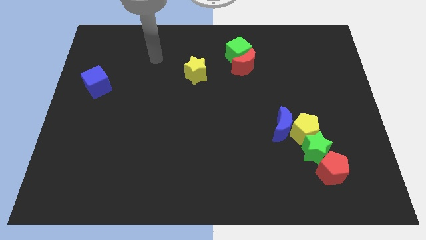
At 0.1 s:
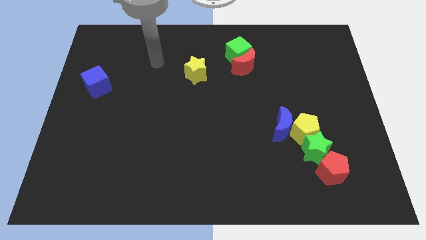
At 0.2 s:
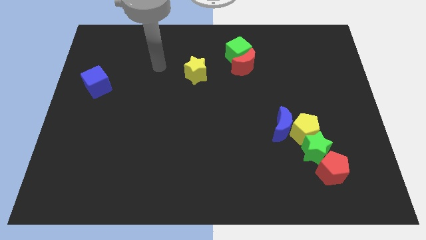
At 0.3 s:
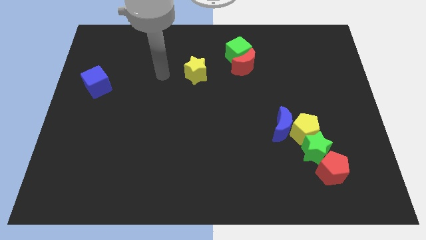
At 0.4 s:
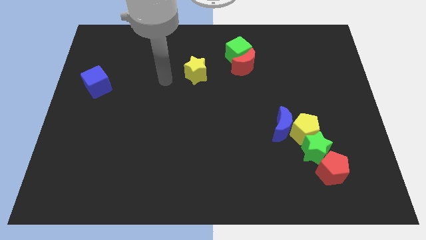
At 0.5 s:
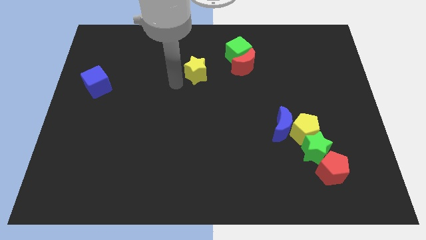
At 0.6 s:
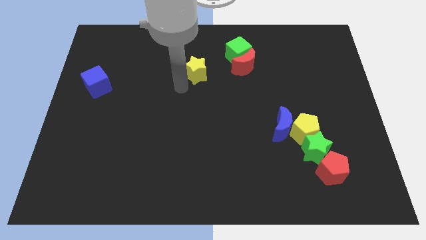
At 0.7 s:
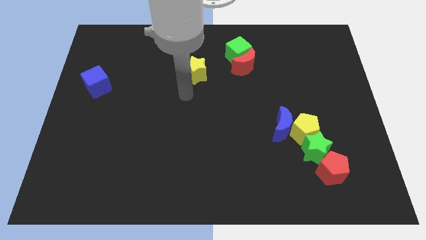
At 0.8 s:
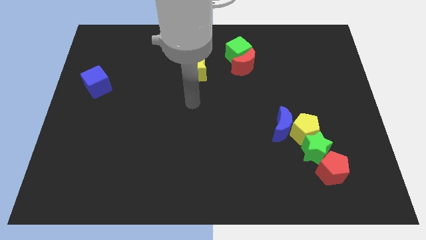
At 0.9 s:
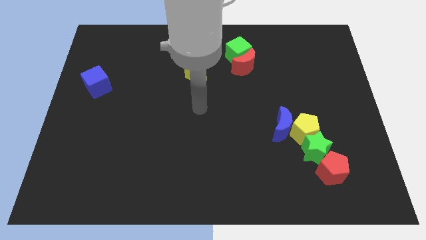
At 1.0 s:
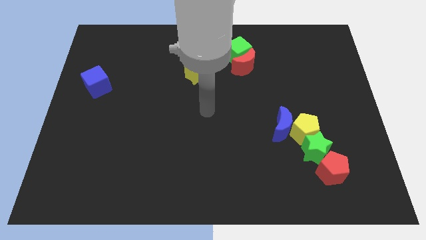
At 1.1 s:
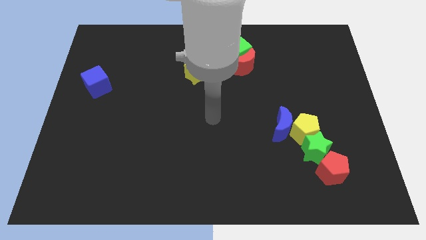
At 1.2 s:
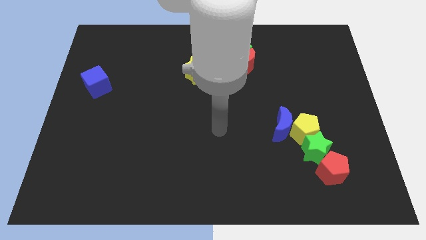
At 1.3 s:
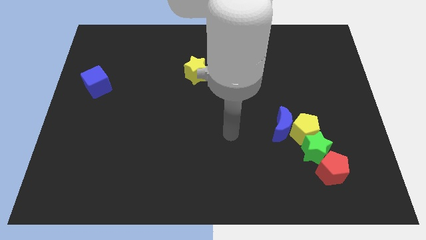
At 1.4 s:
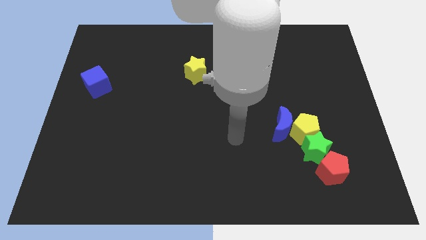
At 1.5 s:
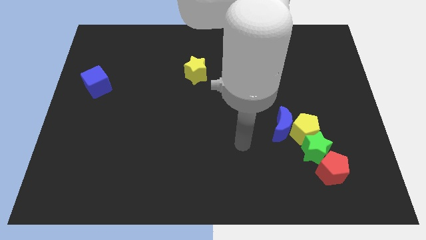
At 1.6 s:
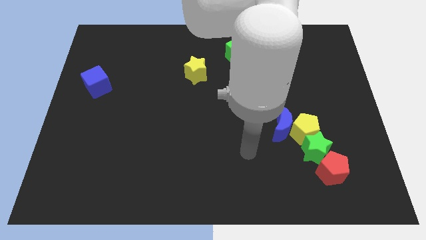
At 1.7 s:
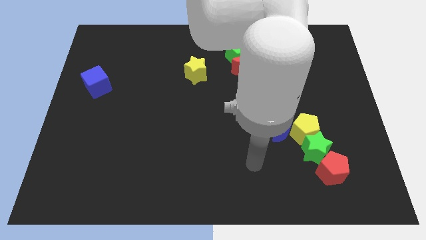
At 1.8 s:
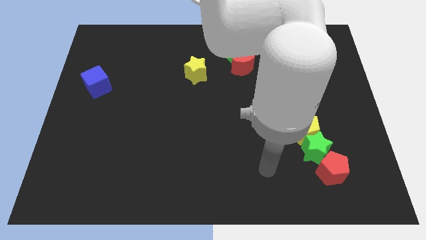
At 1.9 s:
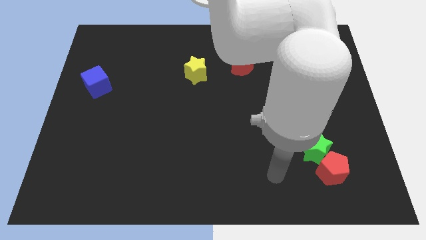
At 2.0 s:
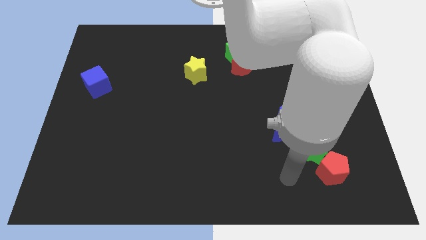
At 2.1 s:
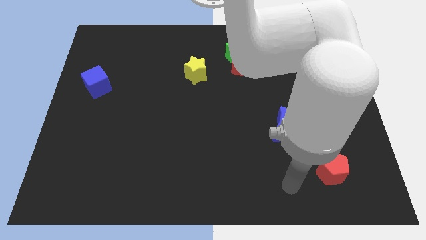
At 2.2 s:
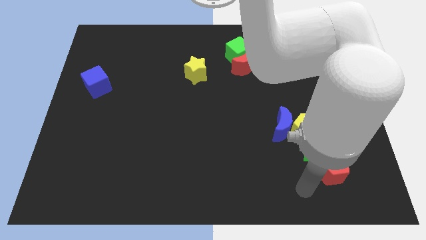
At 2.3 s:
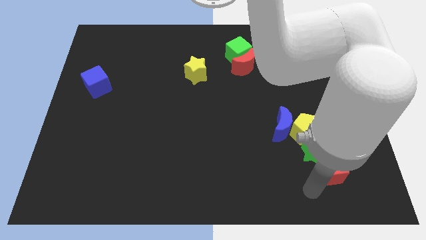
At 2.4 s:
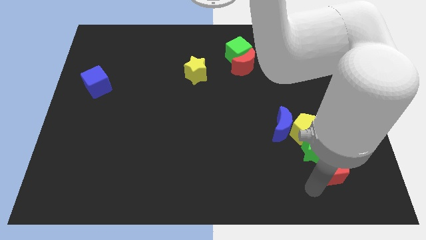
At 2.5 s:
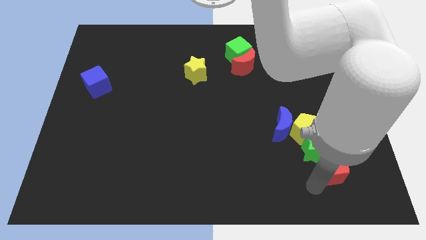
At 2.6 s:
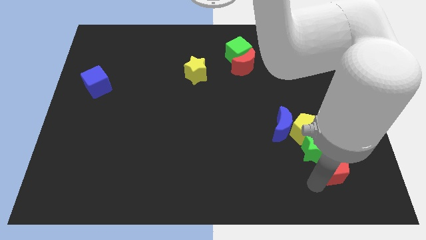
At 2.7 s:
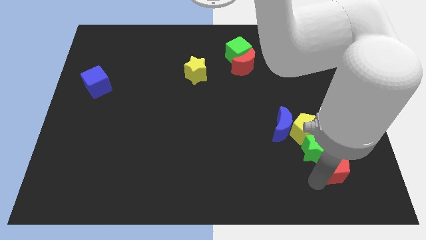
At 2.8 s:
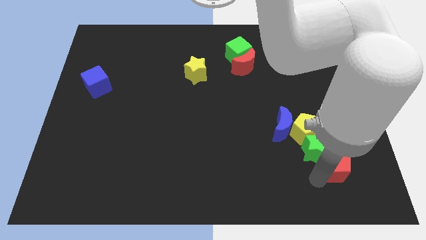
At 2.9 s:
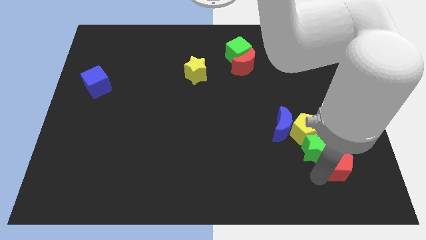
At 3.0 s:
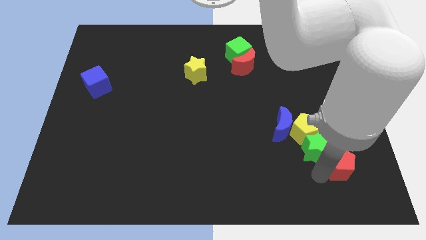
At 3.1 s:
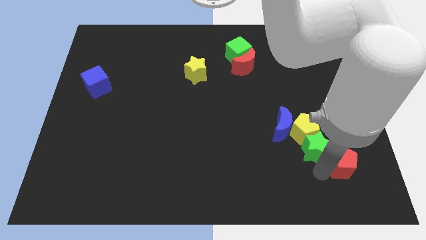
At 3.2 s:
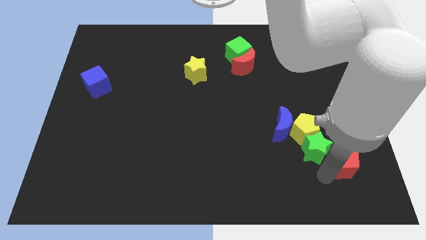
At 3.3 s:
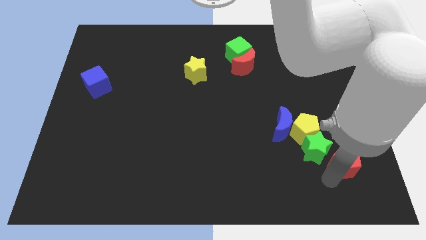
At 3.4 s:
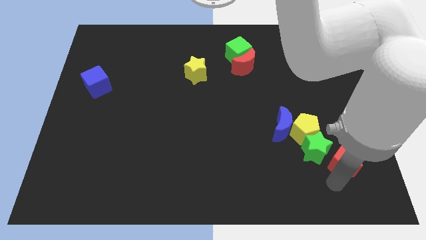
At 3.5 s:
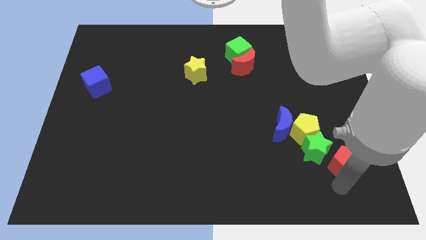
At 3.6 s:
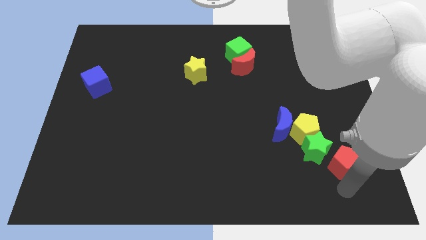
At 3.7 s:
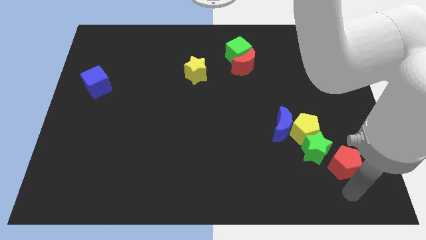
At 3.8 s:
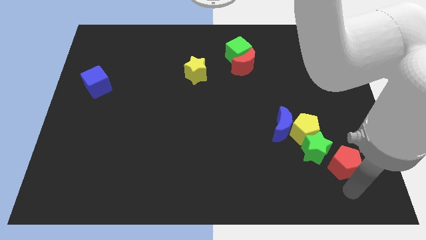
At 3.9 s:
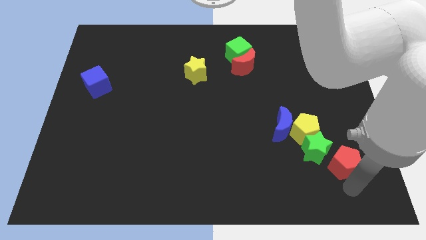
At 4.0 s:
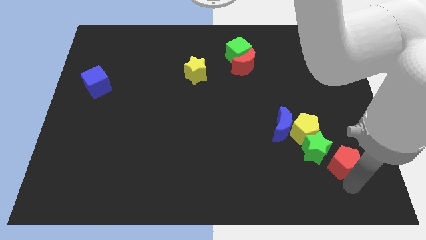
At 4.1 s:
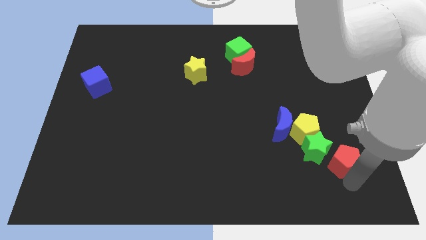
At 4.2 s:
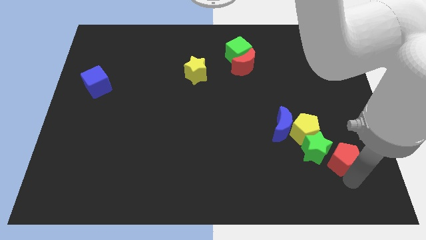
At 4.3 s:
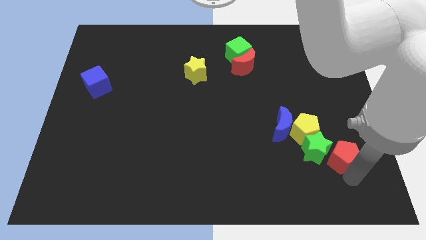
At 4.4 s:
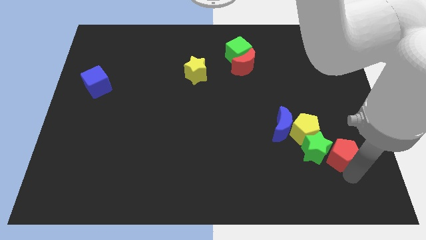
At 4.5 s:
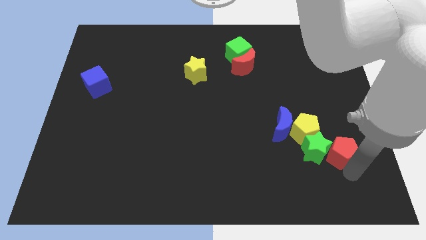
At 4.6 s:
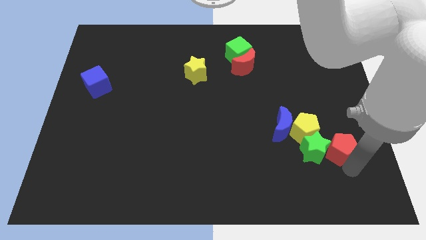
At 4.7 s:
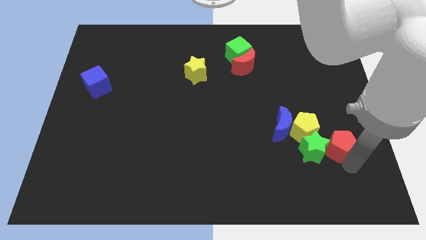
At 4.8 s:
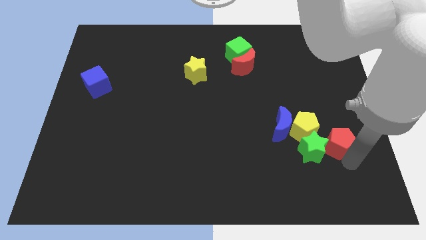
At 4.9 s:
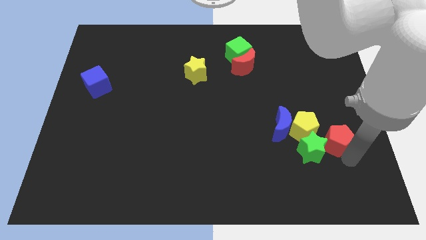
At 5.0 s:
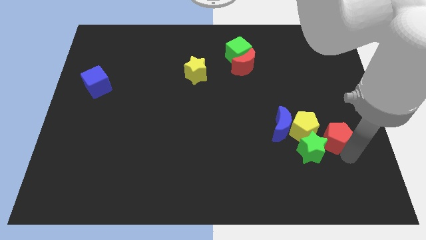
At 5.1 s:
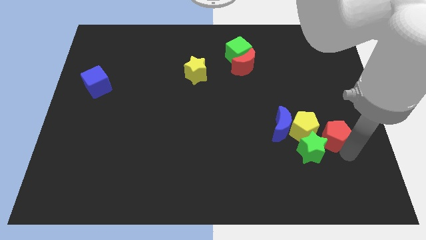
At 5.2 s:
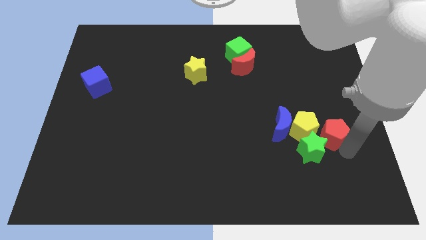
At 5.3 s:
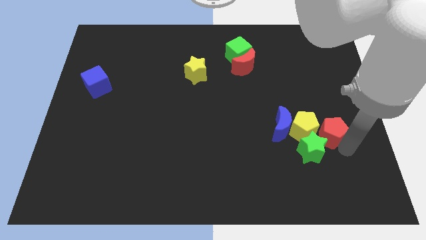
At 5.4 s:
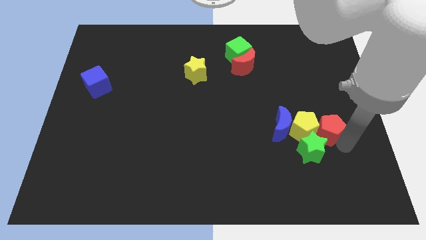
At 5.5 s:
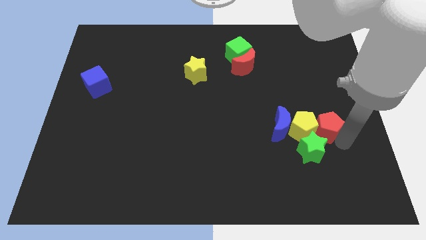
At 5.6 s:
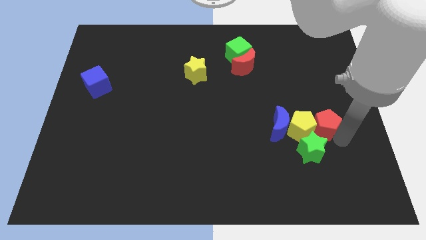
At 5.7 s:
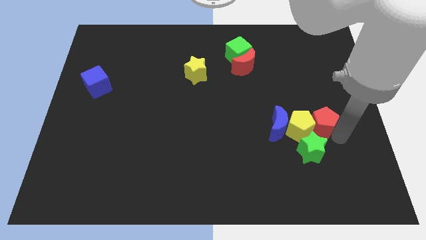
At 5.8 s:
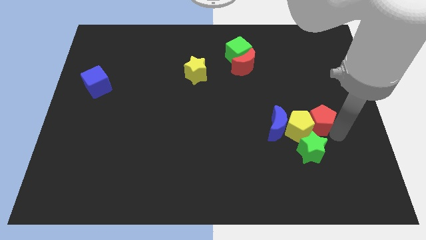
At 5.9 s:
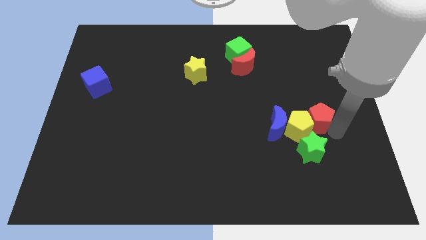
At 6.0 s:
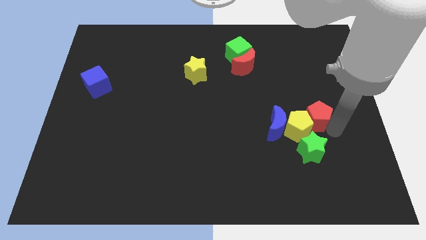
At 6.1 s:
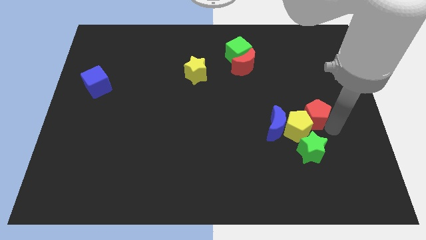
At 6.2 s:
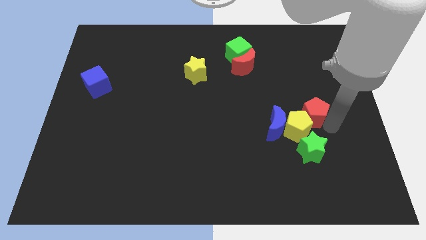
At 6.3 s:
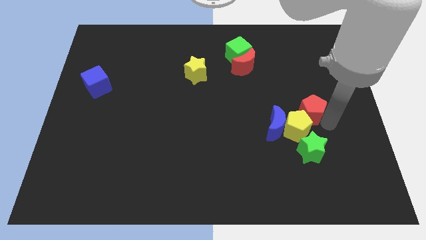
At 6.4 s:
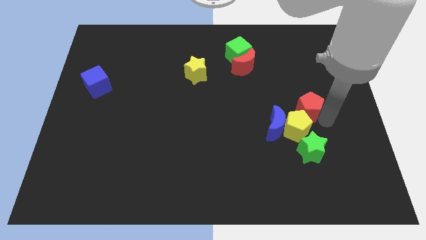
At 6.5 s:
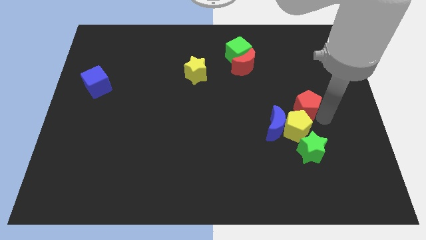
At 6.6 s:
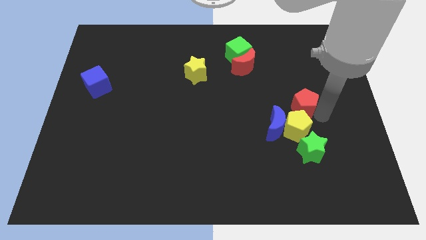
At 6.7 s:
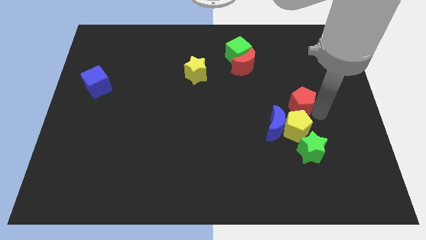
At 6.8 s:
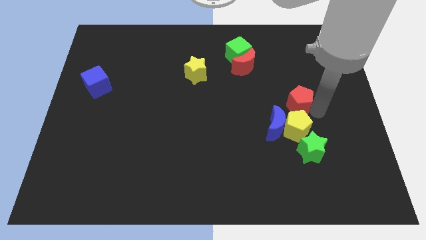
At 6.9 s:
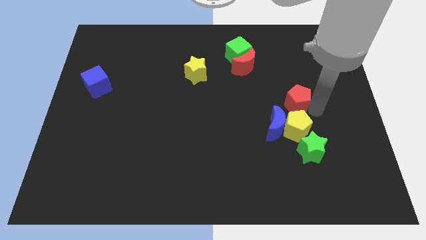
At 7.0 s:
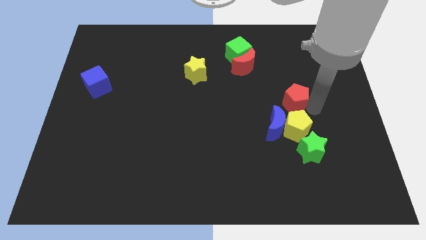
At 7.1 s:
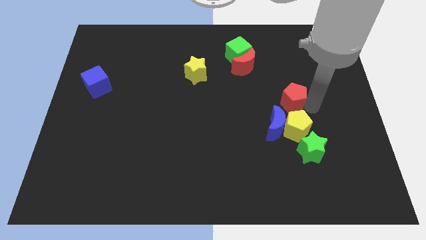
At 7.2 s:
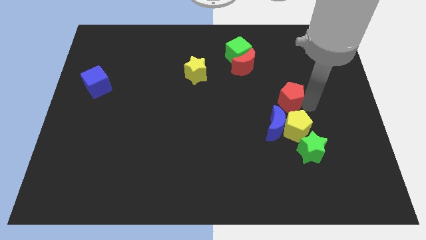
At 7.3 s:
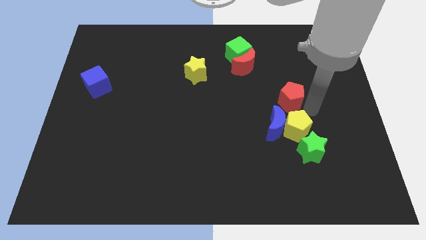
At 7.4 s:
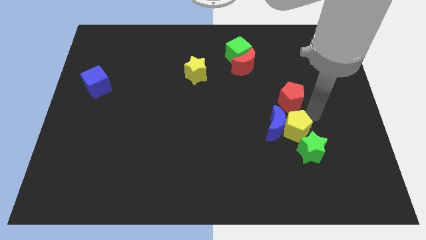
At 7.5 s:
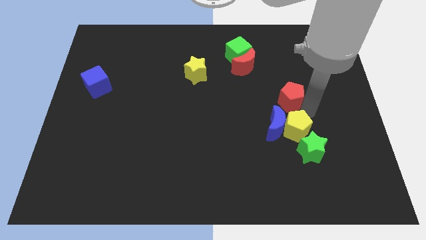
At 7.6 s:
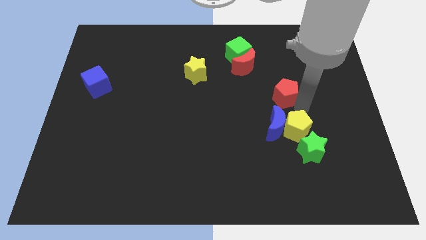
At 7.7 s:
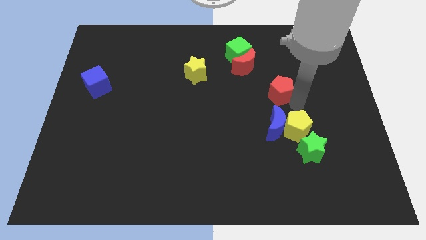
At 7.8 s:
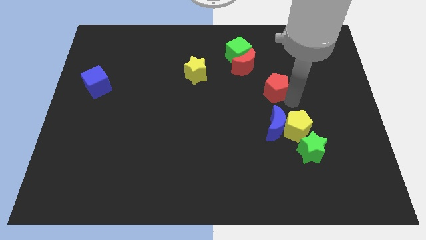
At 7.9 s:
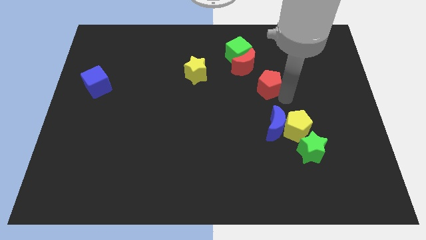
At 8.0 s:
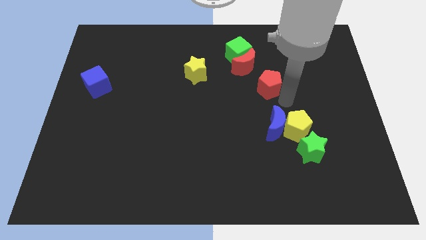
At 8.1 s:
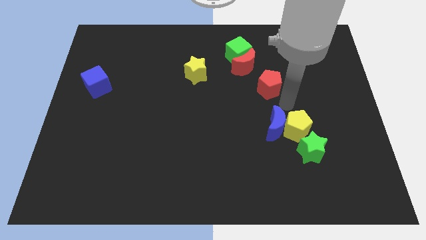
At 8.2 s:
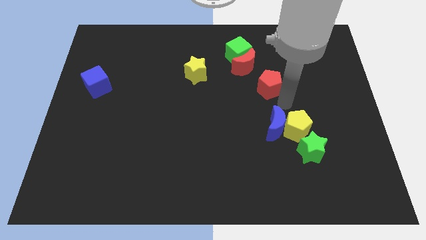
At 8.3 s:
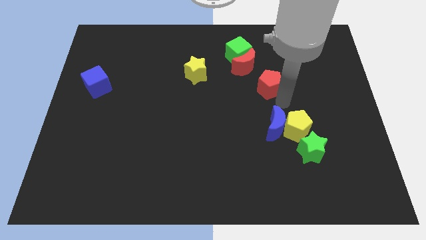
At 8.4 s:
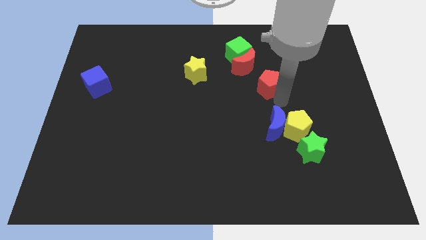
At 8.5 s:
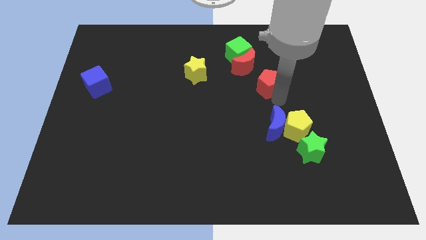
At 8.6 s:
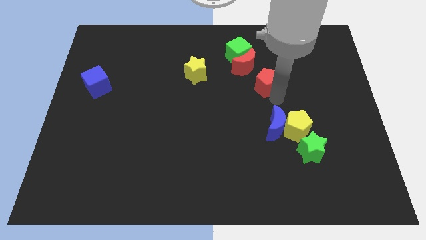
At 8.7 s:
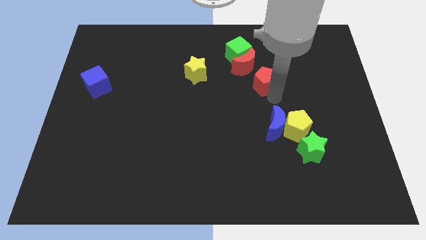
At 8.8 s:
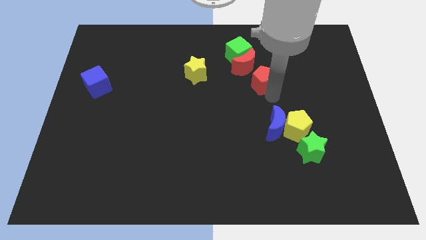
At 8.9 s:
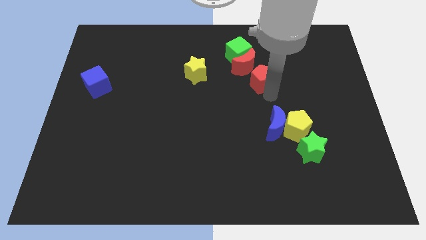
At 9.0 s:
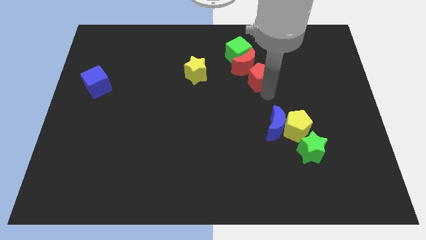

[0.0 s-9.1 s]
move the red pentagon close to the red moon
